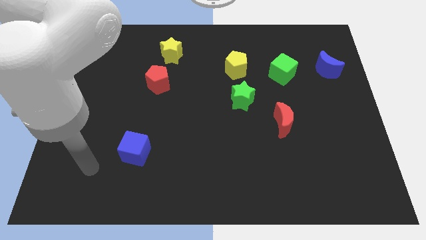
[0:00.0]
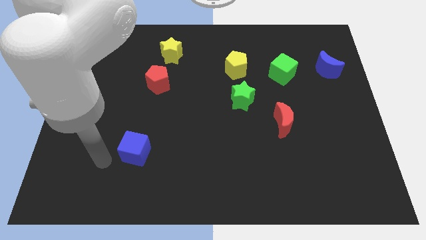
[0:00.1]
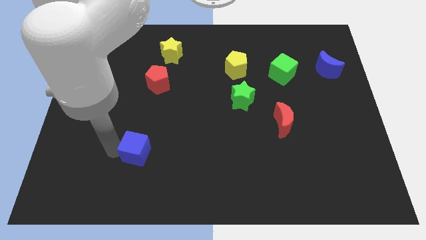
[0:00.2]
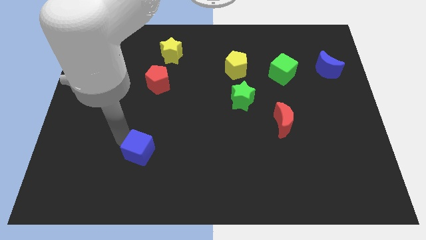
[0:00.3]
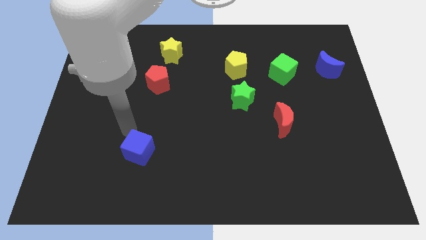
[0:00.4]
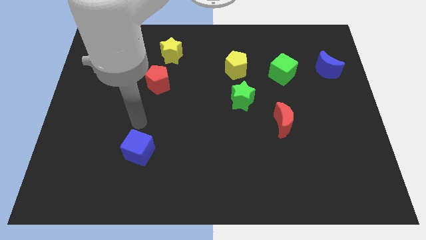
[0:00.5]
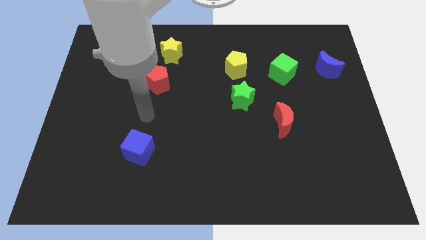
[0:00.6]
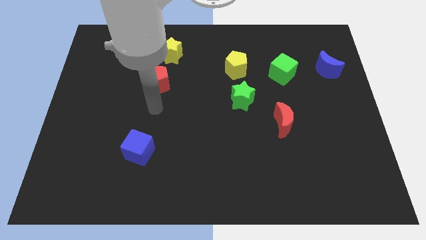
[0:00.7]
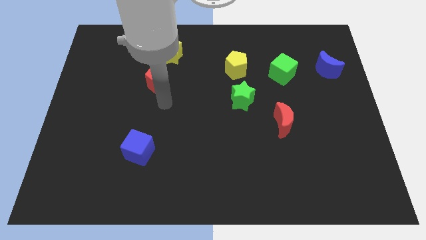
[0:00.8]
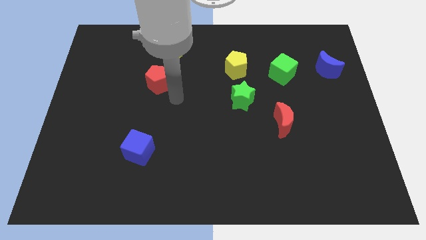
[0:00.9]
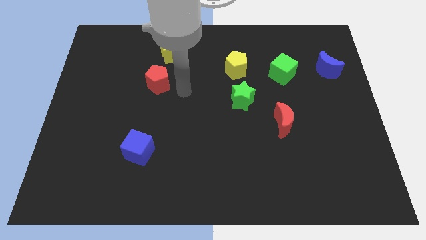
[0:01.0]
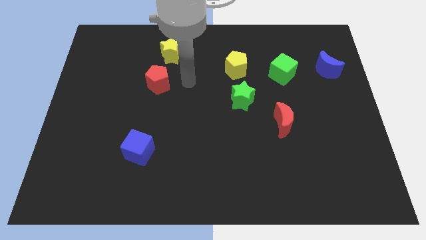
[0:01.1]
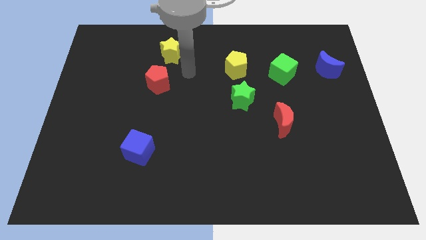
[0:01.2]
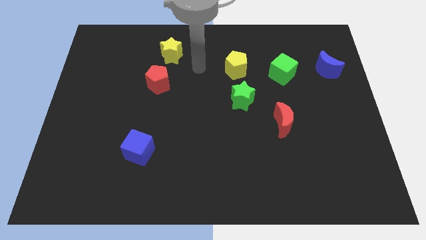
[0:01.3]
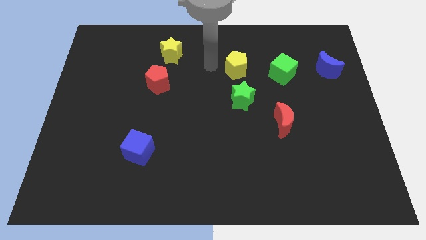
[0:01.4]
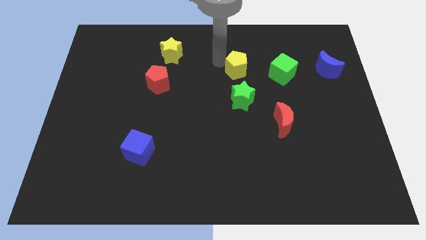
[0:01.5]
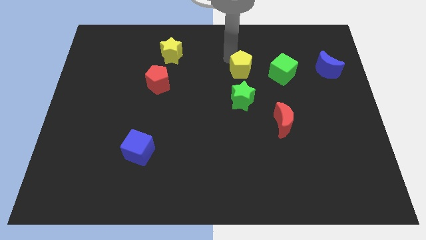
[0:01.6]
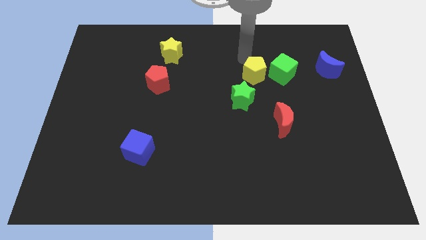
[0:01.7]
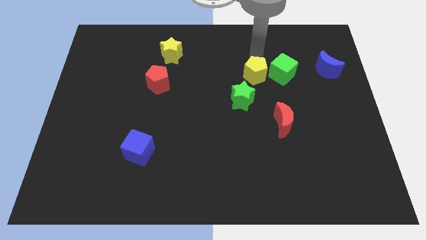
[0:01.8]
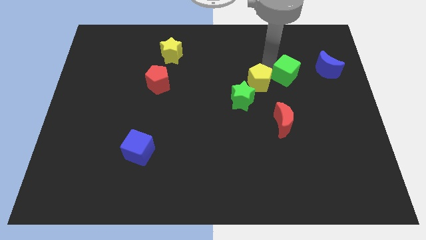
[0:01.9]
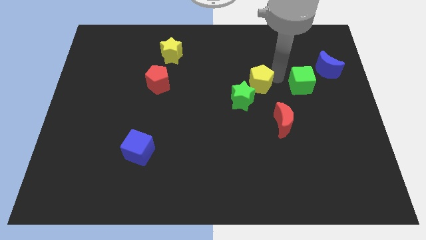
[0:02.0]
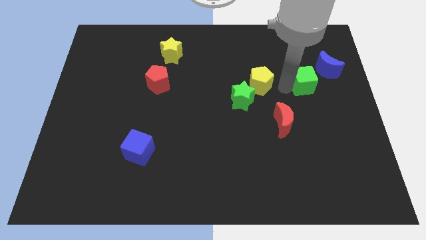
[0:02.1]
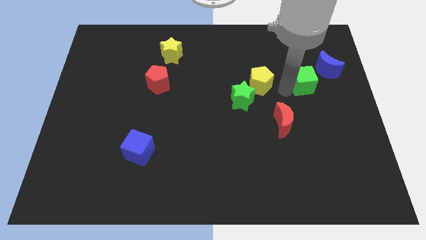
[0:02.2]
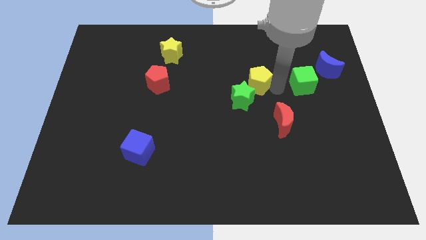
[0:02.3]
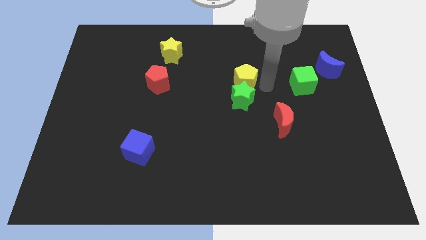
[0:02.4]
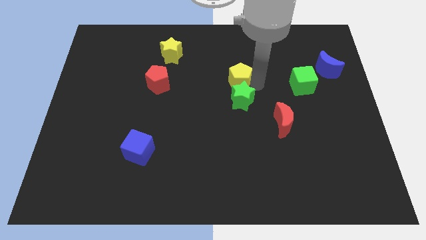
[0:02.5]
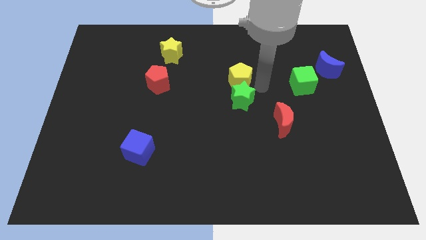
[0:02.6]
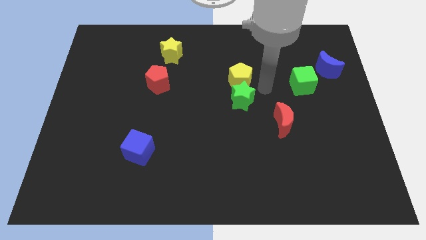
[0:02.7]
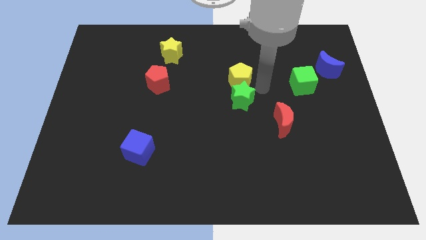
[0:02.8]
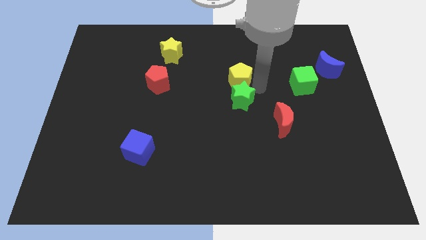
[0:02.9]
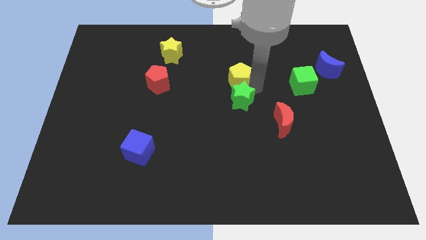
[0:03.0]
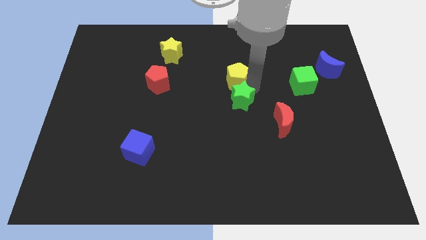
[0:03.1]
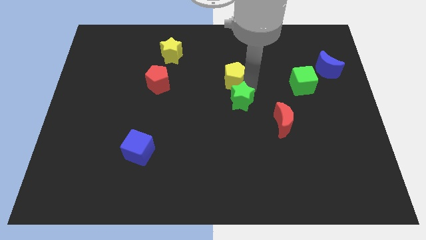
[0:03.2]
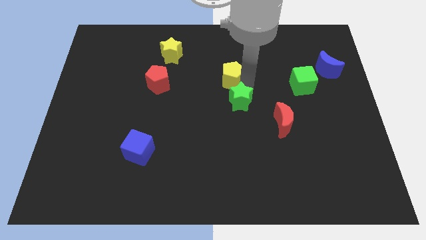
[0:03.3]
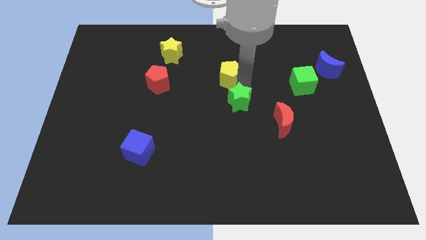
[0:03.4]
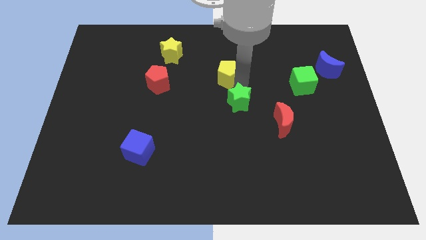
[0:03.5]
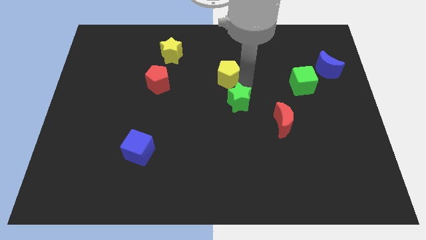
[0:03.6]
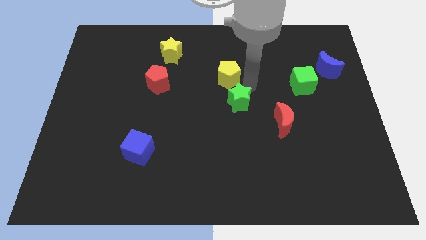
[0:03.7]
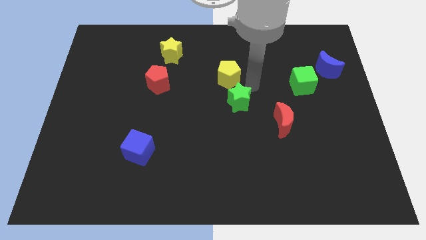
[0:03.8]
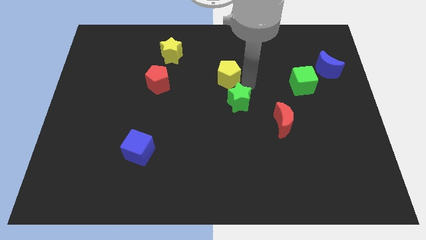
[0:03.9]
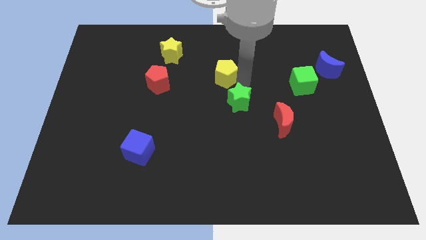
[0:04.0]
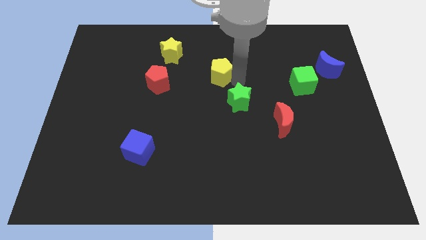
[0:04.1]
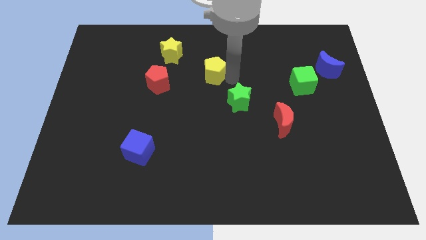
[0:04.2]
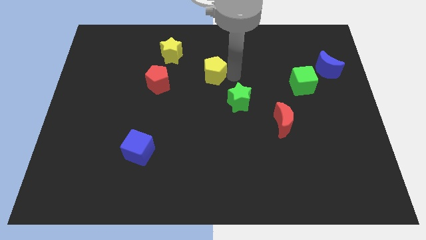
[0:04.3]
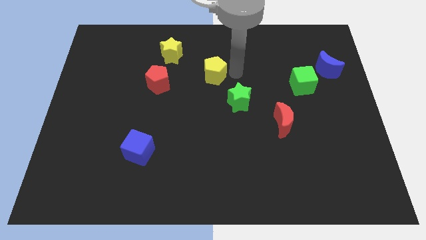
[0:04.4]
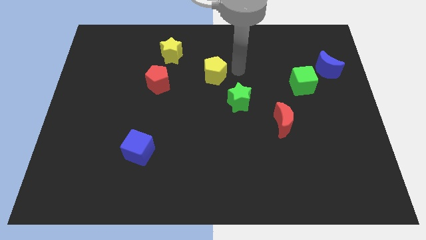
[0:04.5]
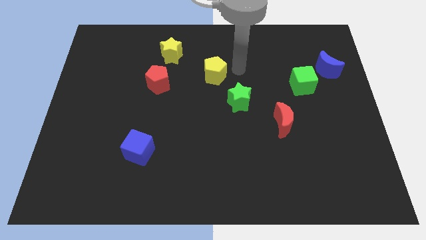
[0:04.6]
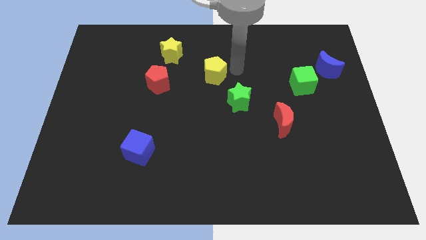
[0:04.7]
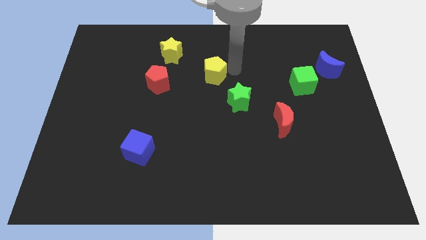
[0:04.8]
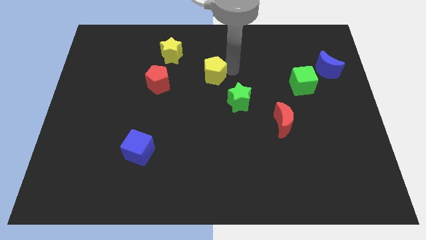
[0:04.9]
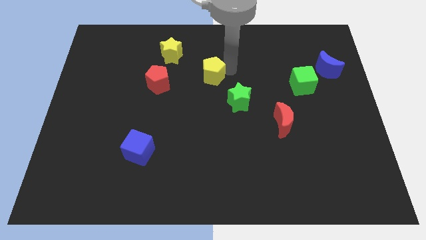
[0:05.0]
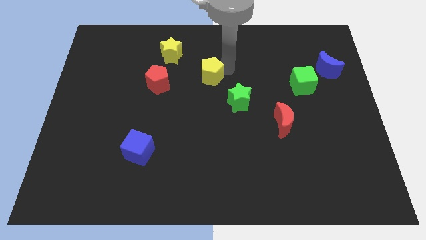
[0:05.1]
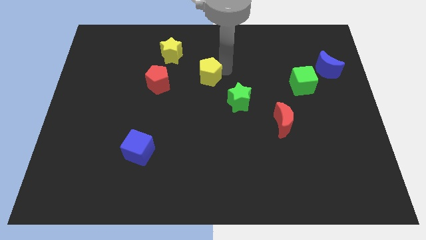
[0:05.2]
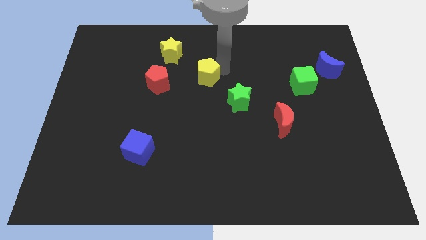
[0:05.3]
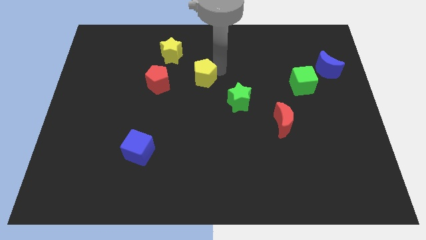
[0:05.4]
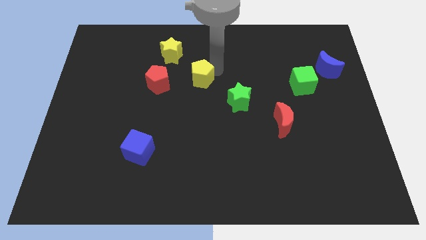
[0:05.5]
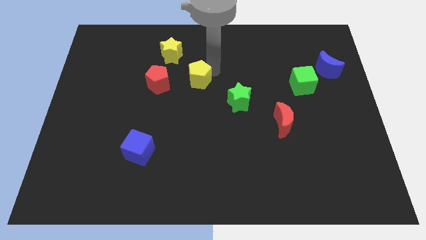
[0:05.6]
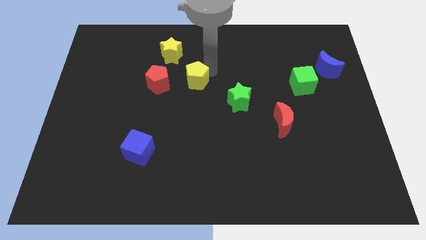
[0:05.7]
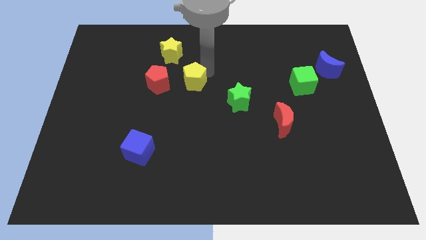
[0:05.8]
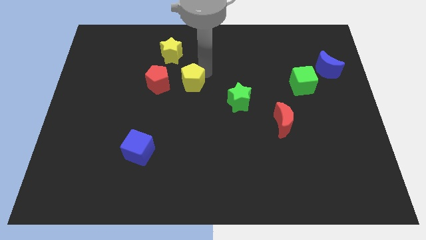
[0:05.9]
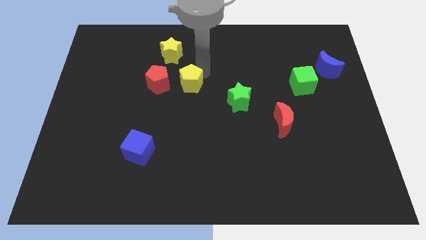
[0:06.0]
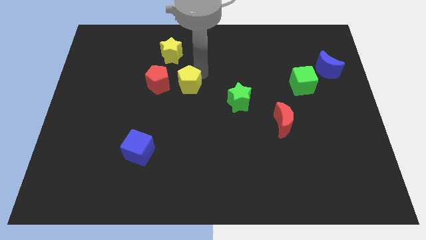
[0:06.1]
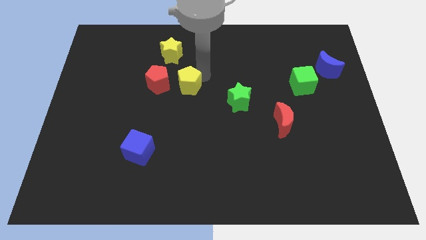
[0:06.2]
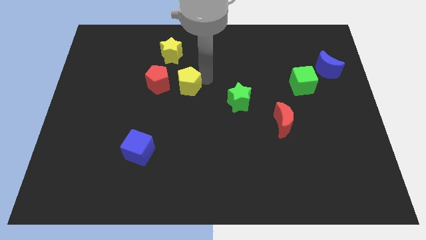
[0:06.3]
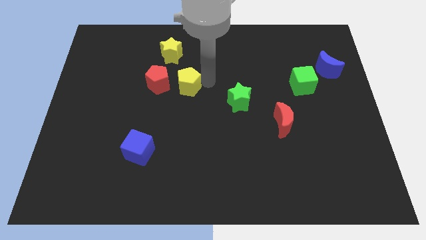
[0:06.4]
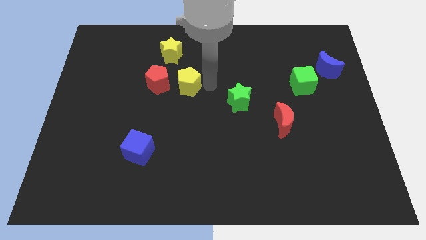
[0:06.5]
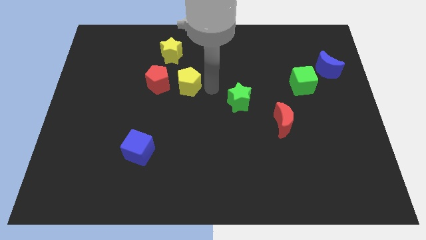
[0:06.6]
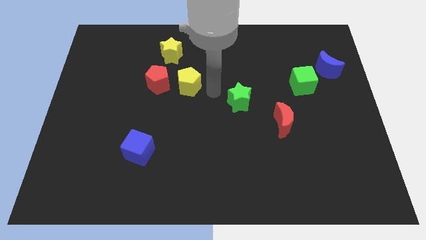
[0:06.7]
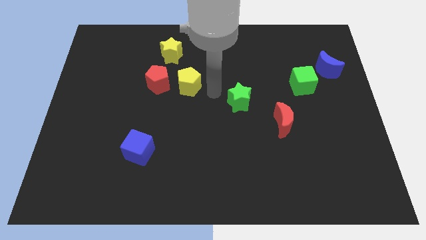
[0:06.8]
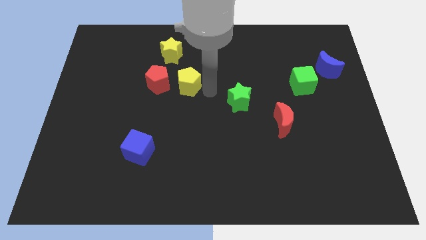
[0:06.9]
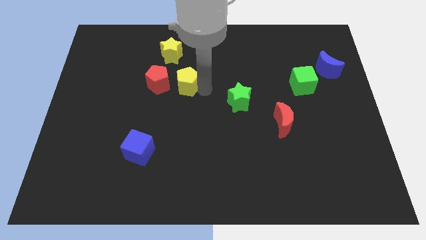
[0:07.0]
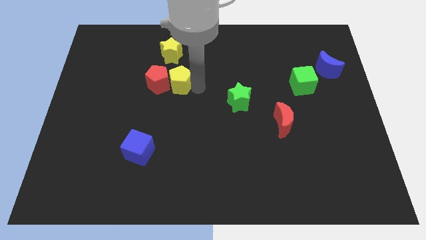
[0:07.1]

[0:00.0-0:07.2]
slide the yellow pentagon towards the red pentagon
